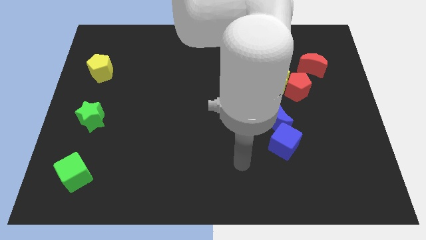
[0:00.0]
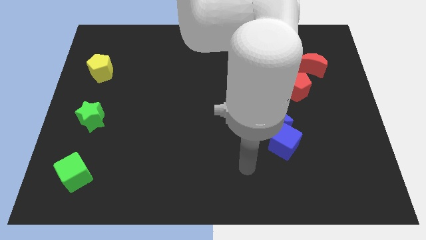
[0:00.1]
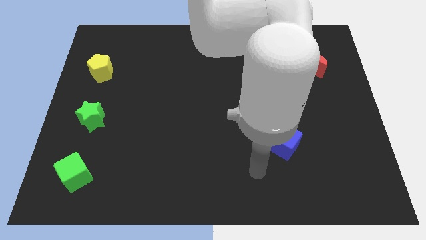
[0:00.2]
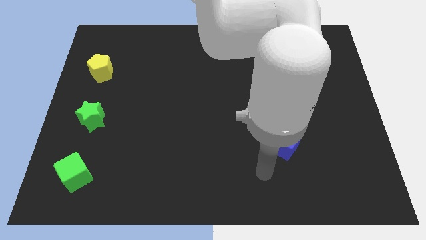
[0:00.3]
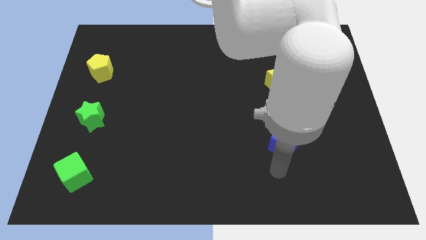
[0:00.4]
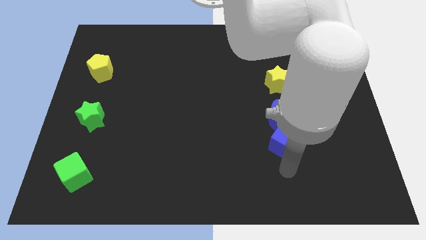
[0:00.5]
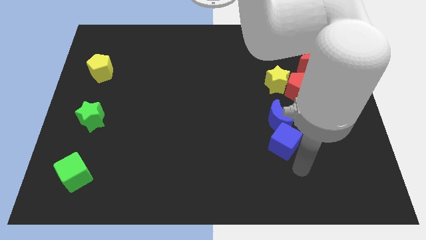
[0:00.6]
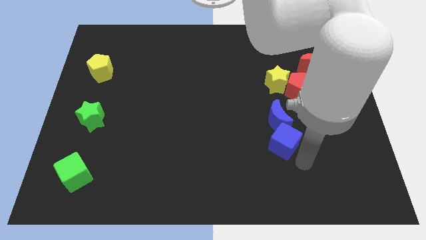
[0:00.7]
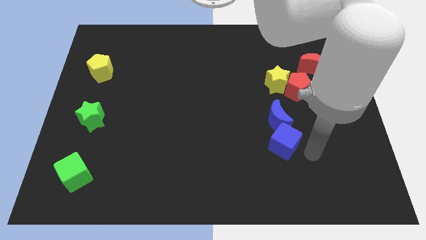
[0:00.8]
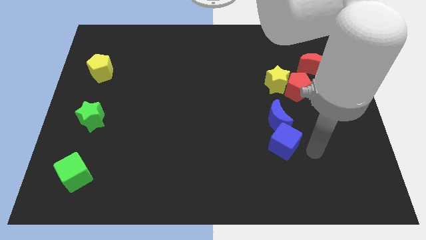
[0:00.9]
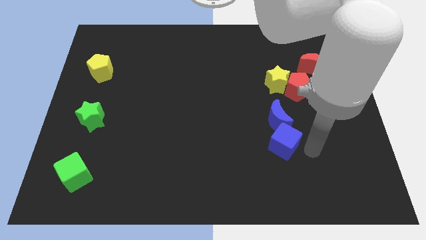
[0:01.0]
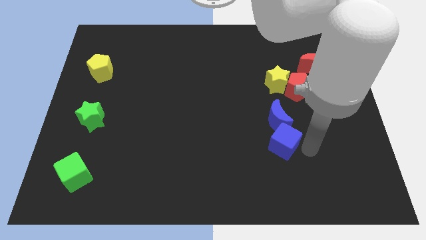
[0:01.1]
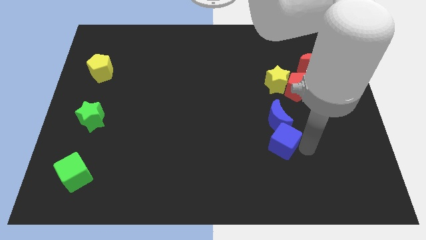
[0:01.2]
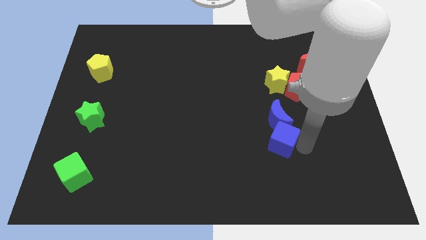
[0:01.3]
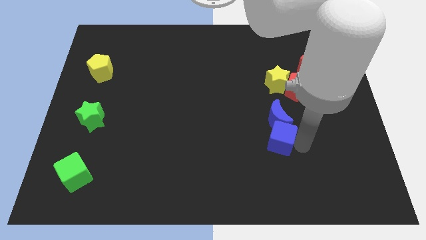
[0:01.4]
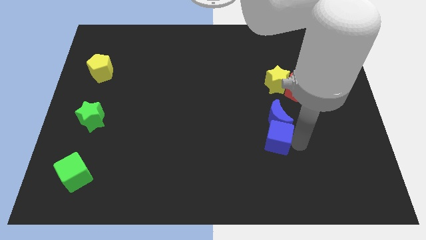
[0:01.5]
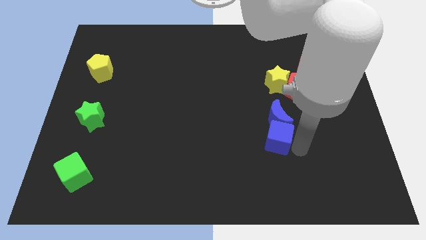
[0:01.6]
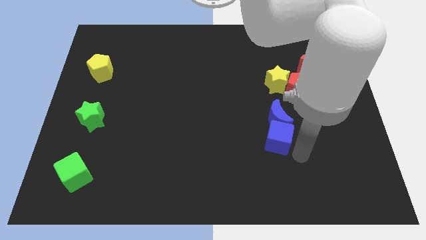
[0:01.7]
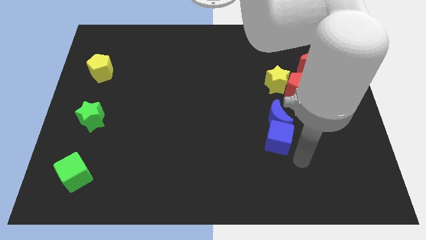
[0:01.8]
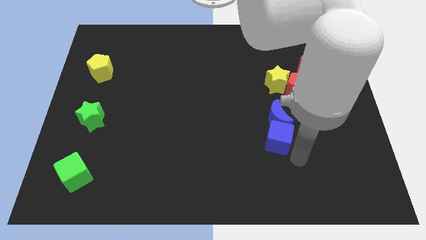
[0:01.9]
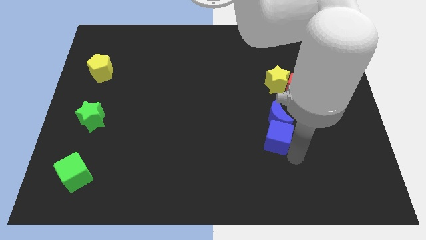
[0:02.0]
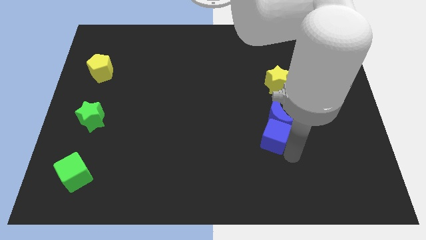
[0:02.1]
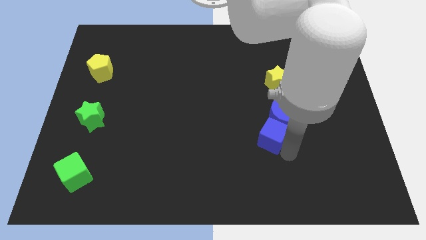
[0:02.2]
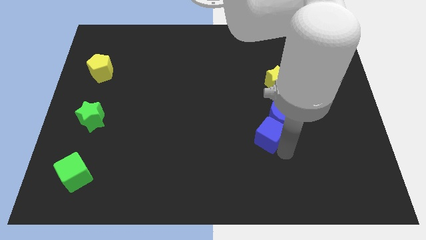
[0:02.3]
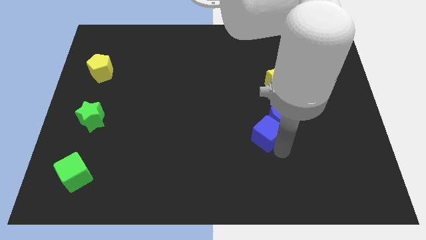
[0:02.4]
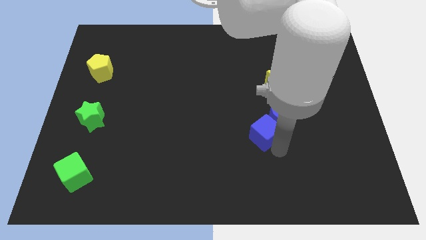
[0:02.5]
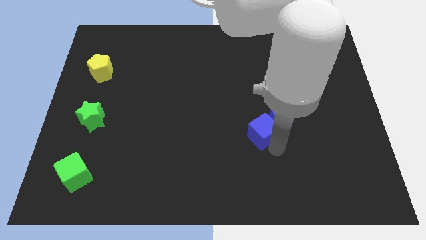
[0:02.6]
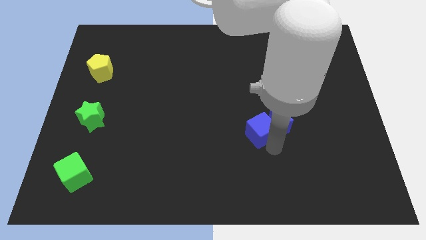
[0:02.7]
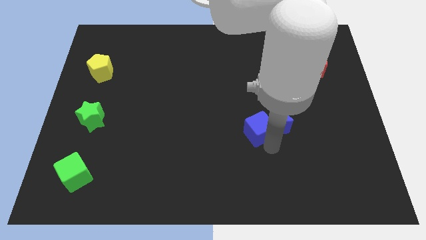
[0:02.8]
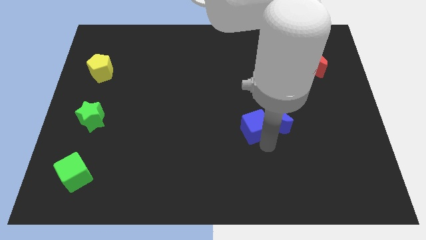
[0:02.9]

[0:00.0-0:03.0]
move the blue cube up and then to the left slightly

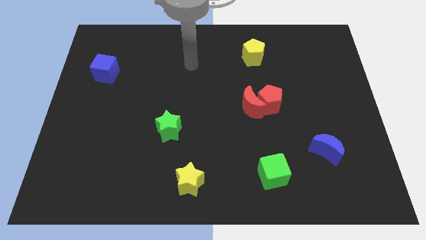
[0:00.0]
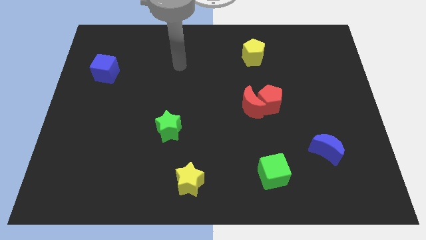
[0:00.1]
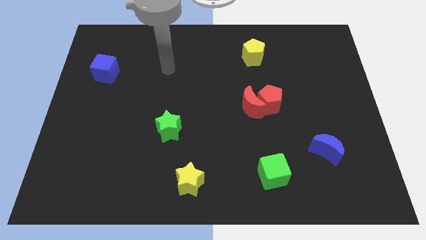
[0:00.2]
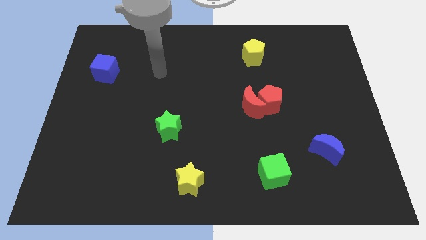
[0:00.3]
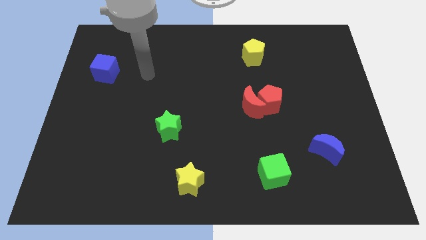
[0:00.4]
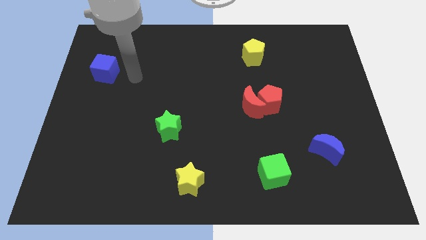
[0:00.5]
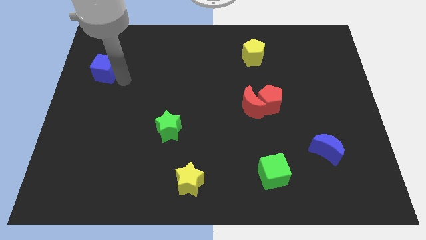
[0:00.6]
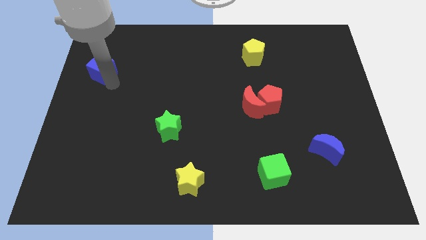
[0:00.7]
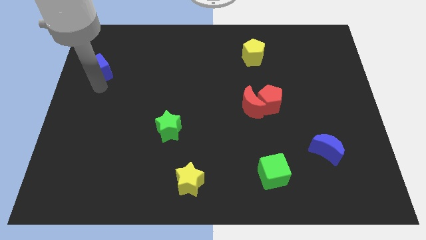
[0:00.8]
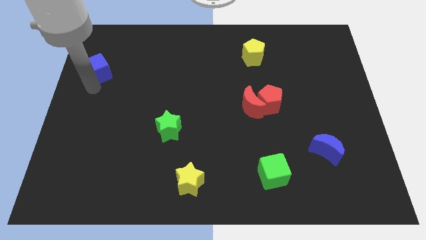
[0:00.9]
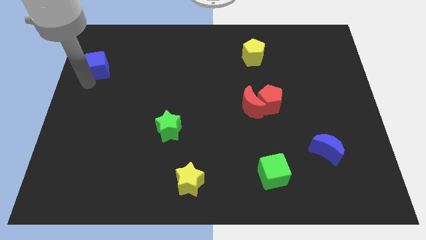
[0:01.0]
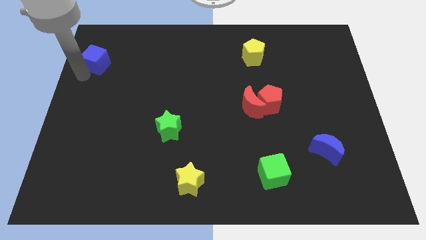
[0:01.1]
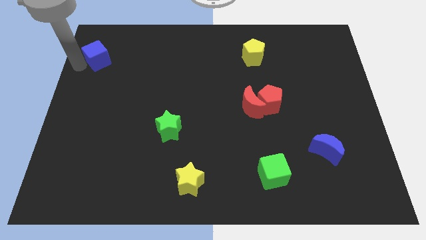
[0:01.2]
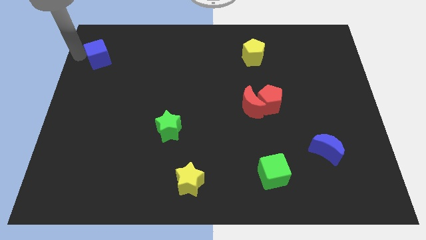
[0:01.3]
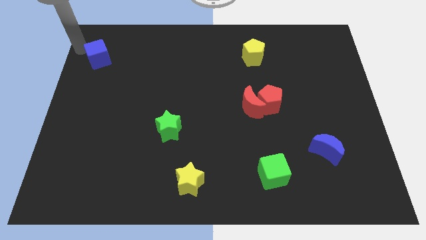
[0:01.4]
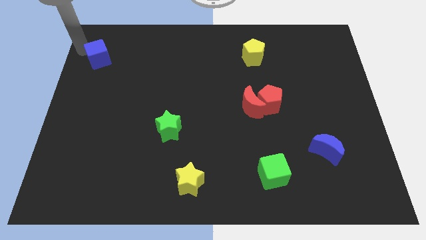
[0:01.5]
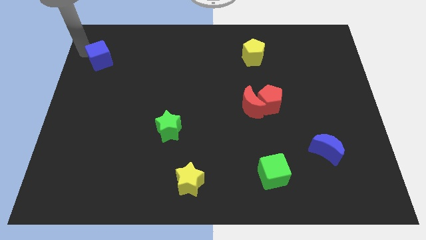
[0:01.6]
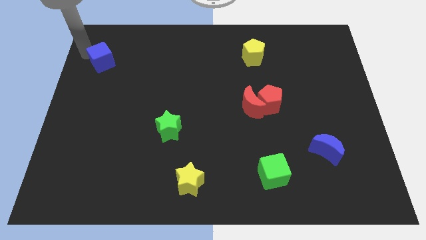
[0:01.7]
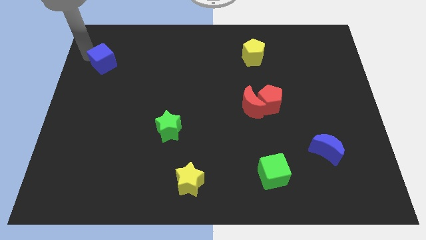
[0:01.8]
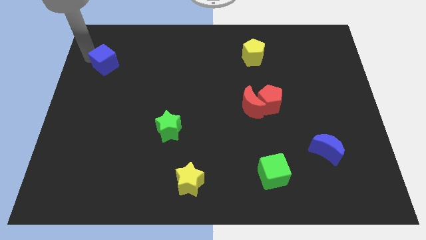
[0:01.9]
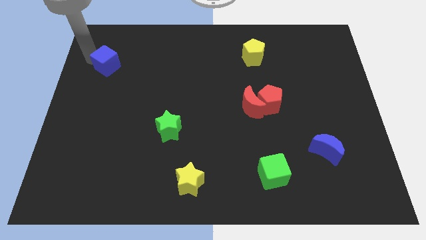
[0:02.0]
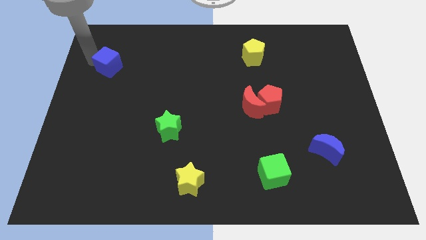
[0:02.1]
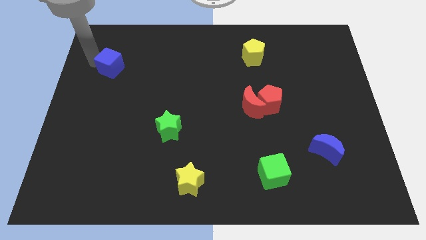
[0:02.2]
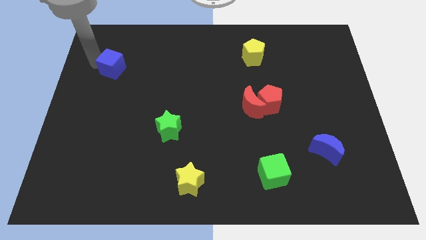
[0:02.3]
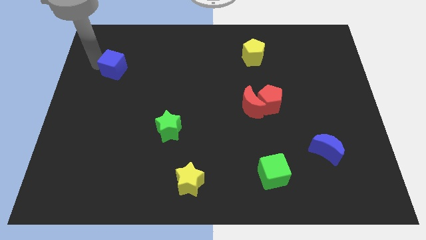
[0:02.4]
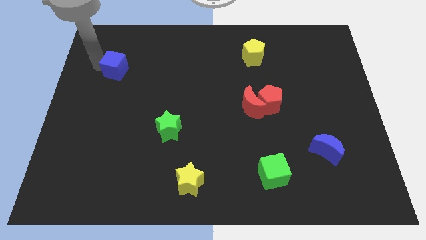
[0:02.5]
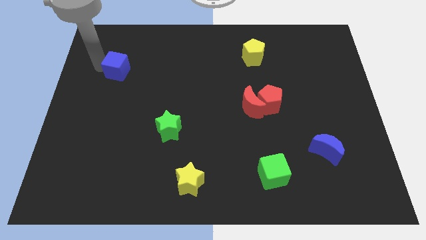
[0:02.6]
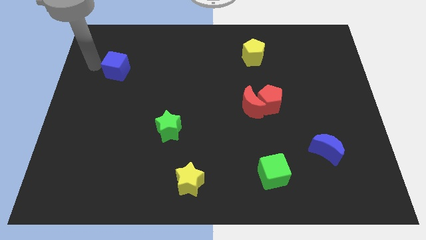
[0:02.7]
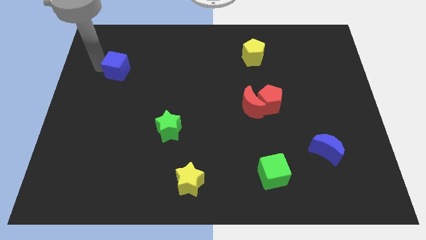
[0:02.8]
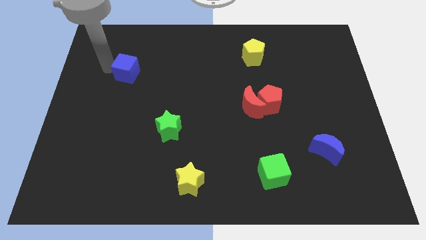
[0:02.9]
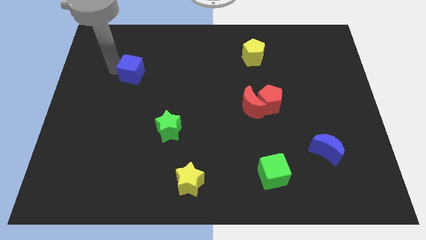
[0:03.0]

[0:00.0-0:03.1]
move the blue cube right a bit

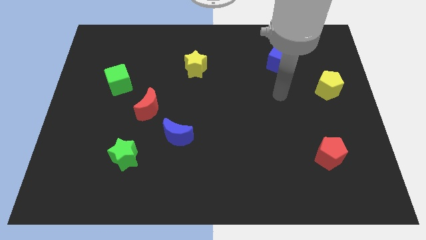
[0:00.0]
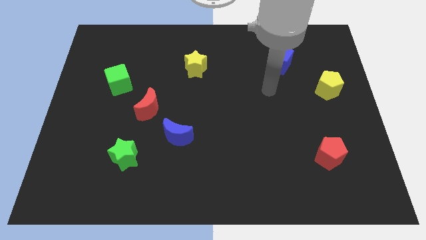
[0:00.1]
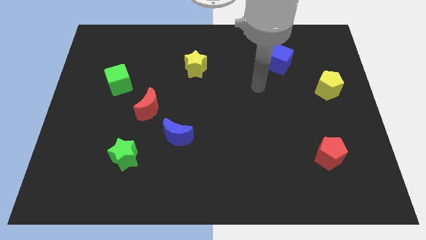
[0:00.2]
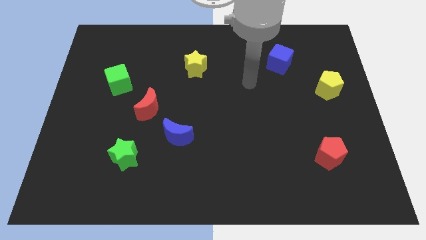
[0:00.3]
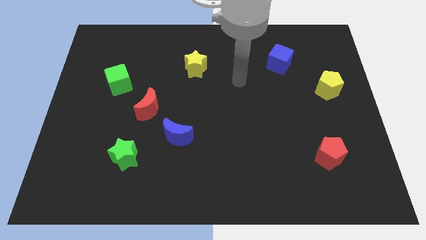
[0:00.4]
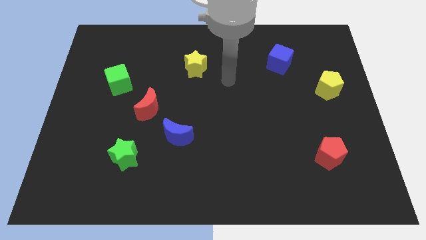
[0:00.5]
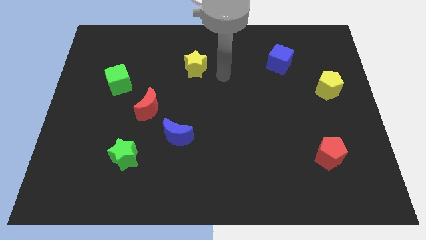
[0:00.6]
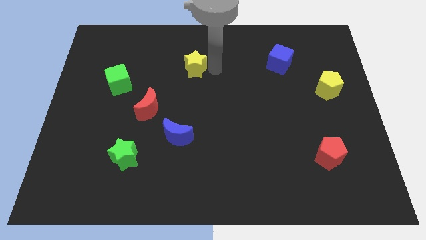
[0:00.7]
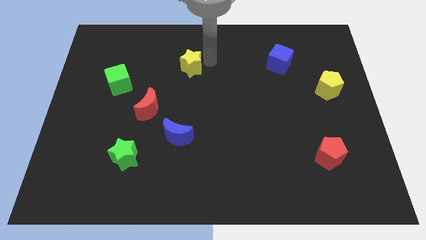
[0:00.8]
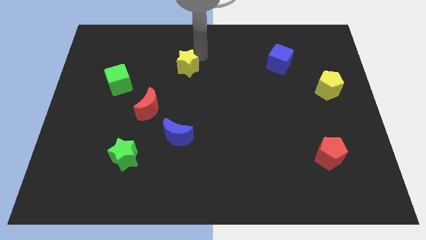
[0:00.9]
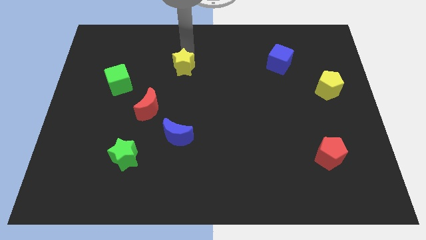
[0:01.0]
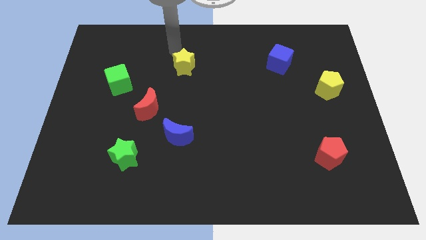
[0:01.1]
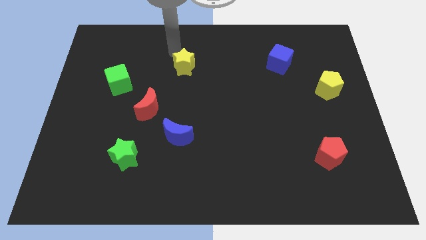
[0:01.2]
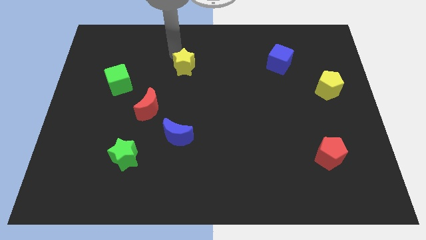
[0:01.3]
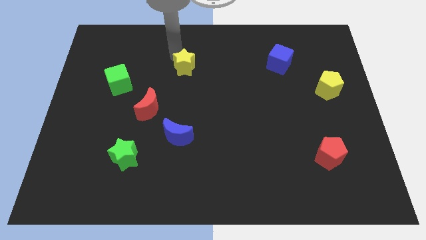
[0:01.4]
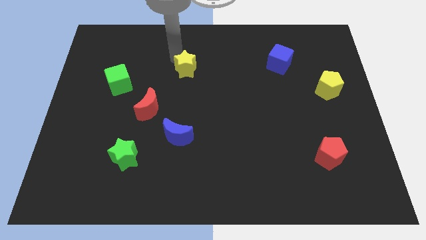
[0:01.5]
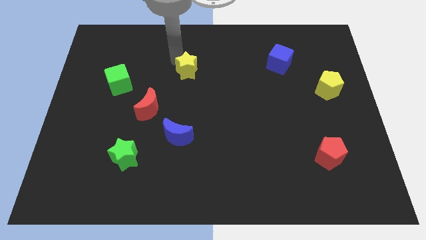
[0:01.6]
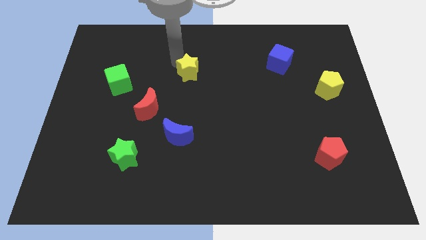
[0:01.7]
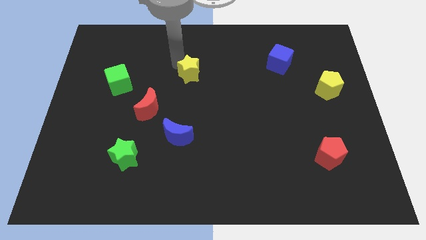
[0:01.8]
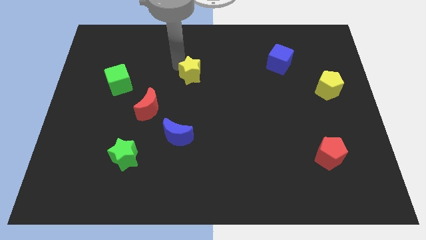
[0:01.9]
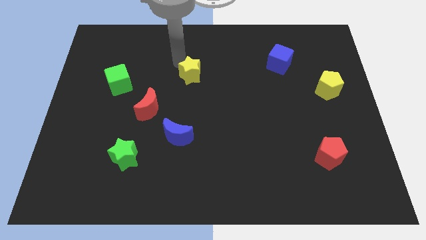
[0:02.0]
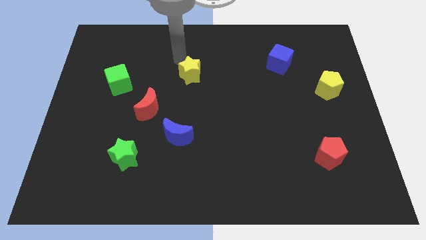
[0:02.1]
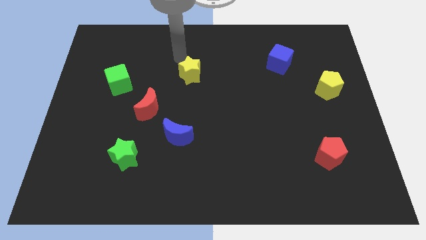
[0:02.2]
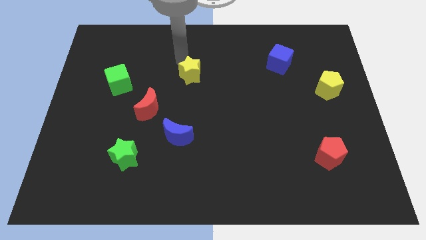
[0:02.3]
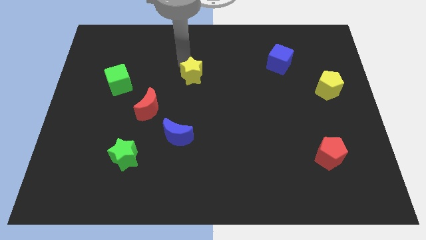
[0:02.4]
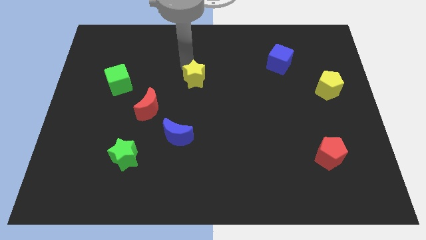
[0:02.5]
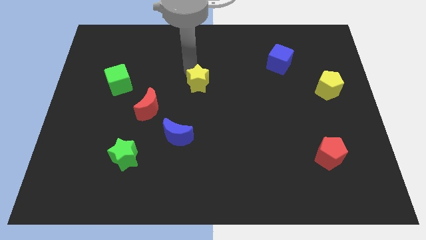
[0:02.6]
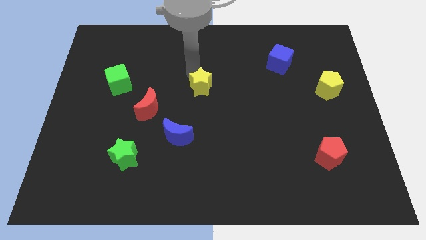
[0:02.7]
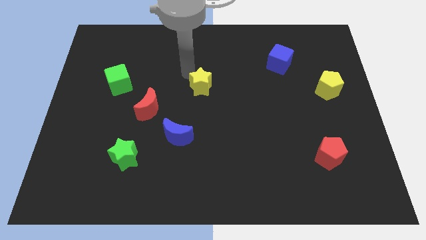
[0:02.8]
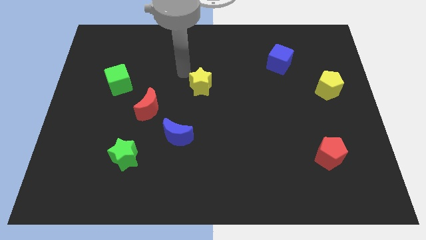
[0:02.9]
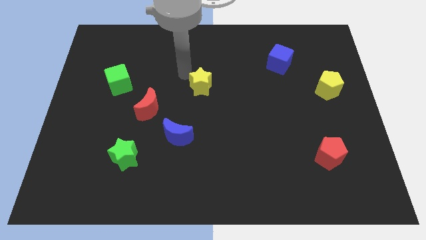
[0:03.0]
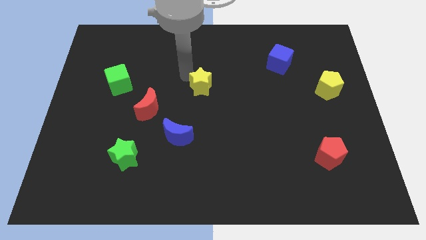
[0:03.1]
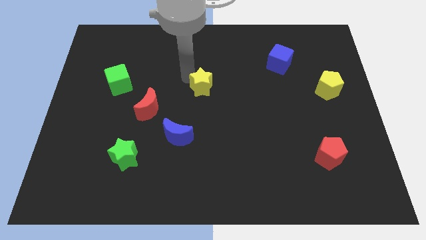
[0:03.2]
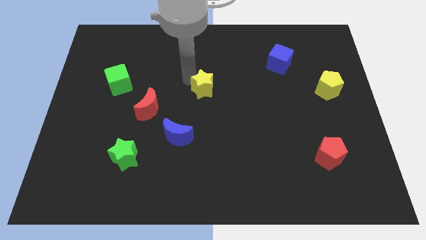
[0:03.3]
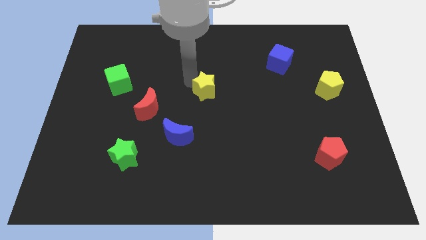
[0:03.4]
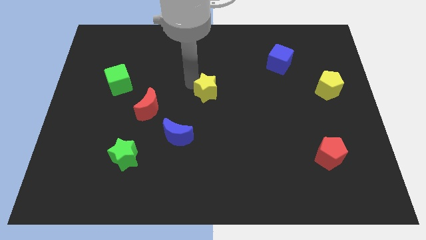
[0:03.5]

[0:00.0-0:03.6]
slightly push the yellow star diagonally downwards and right
